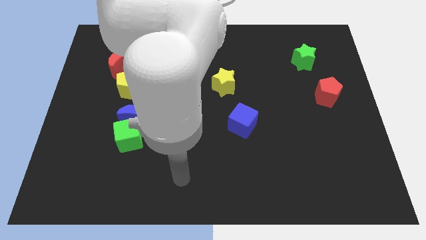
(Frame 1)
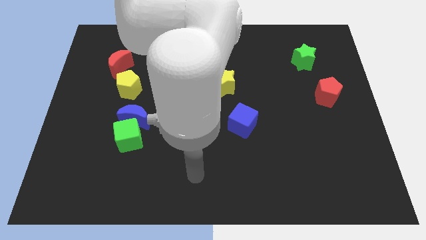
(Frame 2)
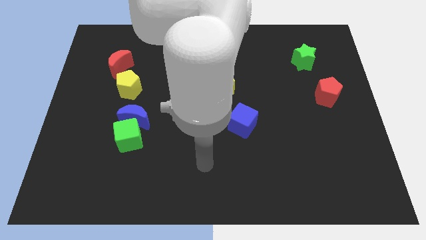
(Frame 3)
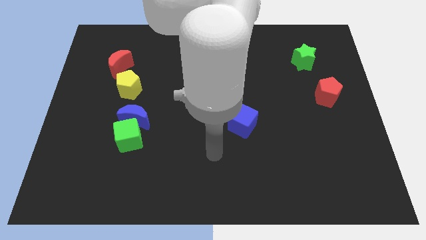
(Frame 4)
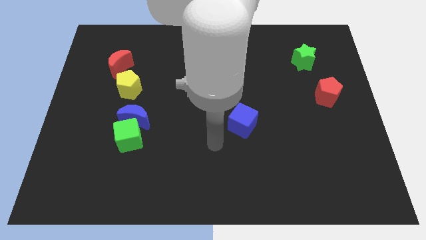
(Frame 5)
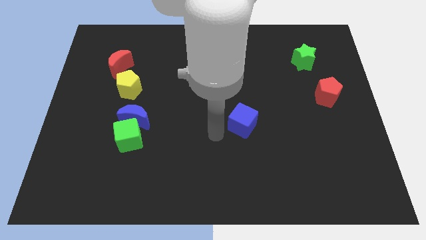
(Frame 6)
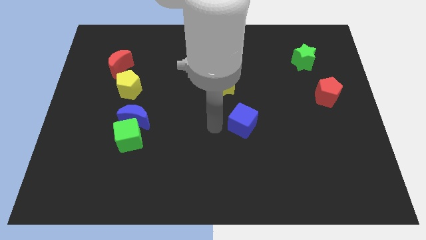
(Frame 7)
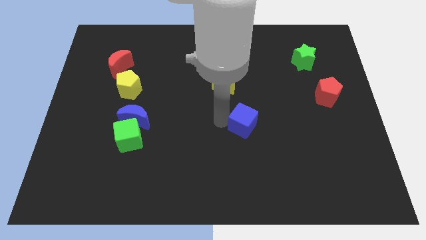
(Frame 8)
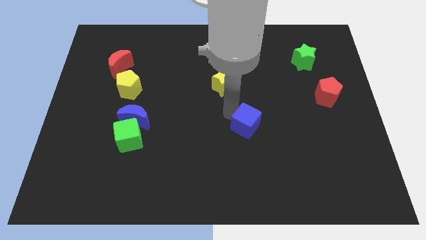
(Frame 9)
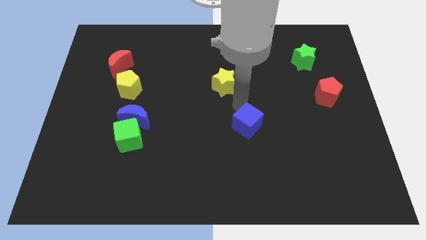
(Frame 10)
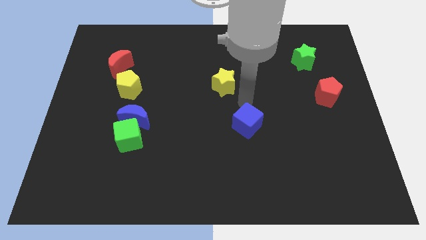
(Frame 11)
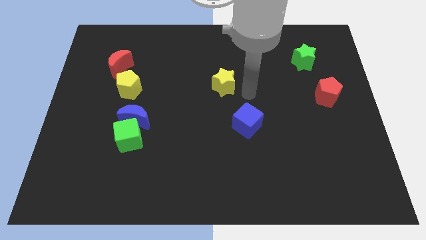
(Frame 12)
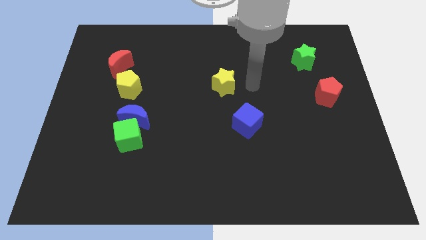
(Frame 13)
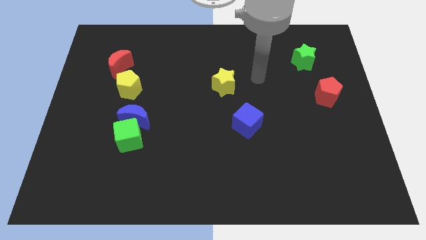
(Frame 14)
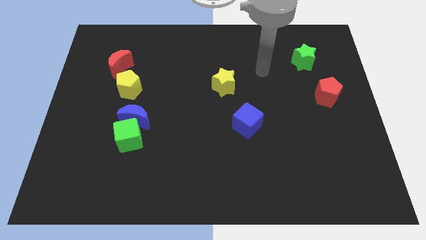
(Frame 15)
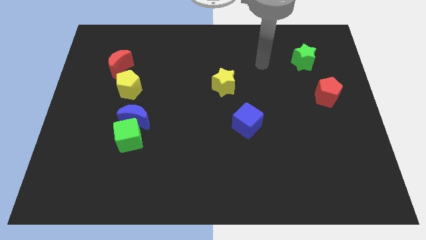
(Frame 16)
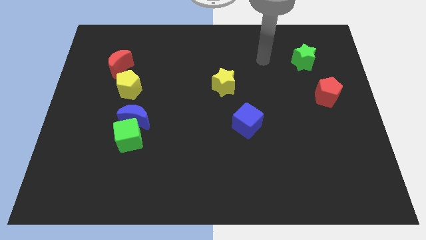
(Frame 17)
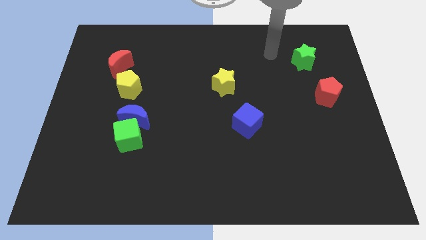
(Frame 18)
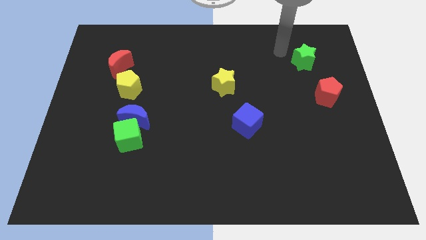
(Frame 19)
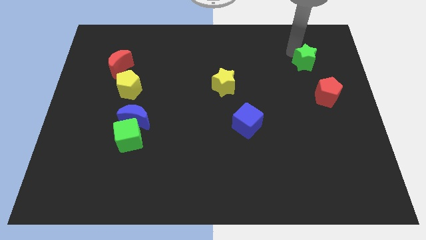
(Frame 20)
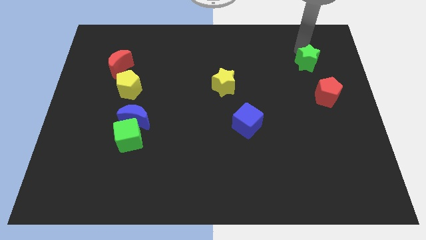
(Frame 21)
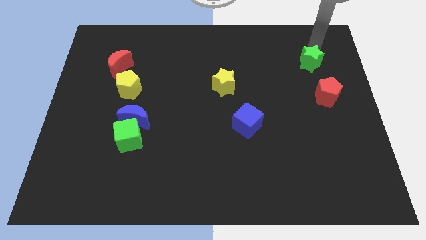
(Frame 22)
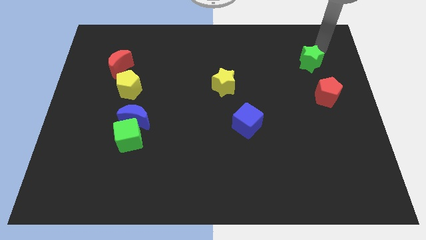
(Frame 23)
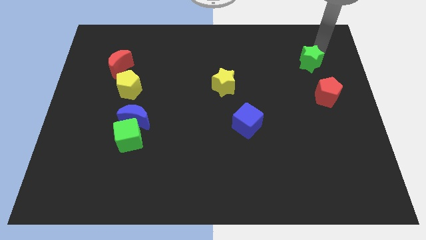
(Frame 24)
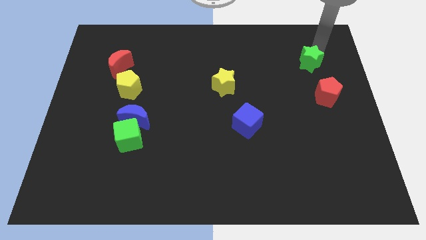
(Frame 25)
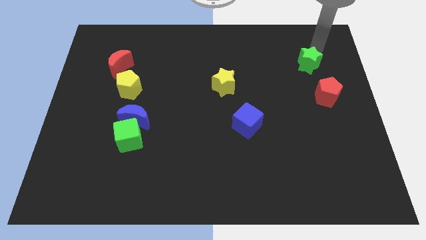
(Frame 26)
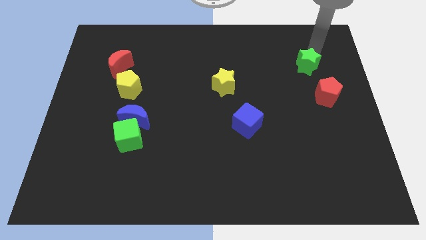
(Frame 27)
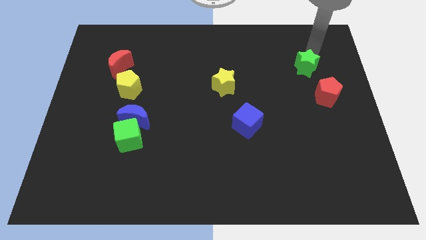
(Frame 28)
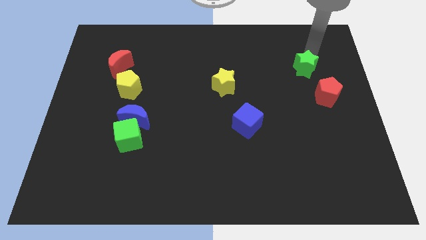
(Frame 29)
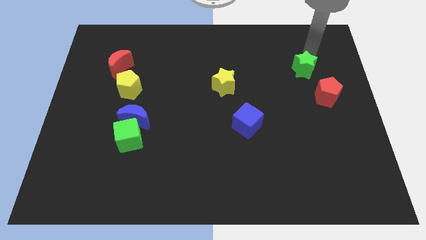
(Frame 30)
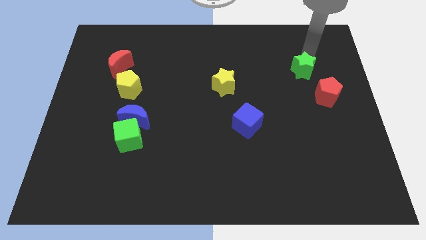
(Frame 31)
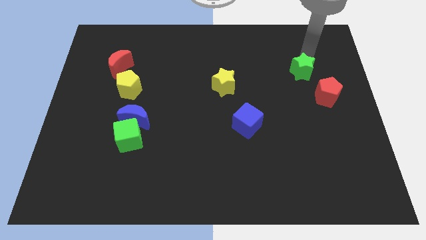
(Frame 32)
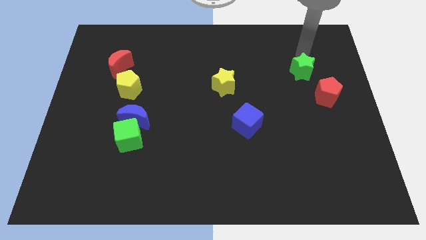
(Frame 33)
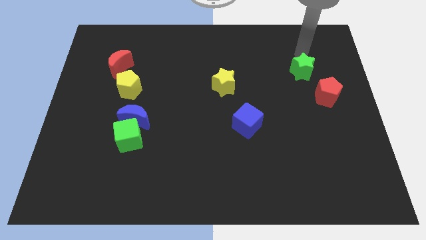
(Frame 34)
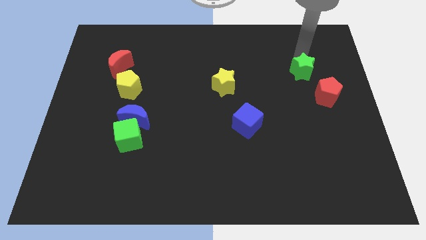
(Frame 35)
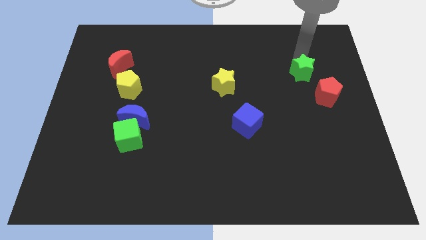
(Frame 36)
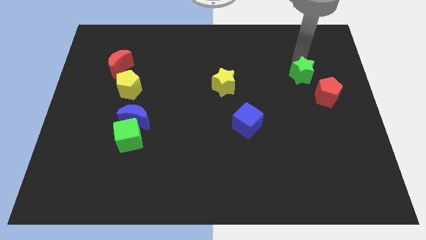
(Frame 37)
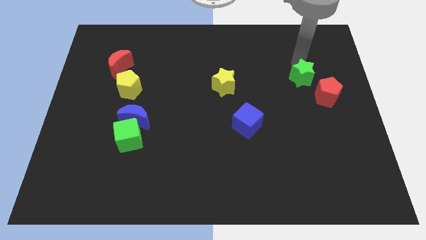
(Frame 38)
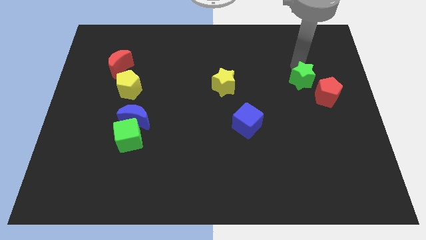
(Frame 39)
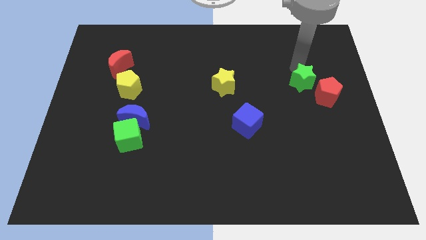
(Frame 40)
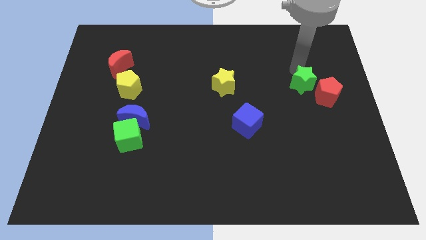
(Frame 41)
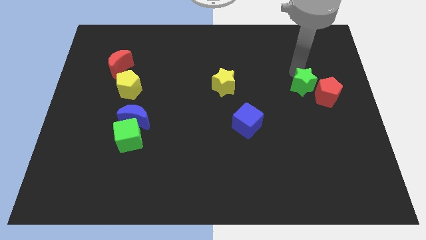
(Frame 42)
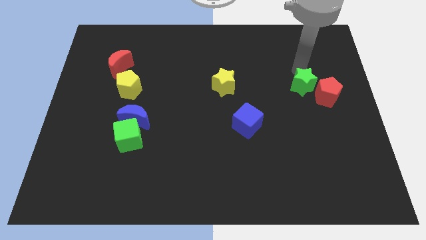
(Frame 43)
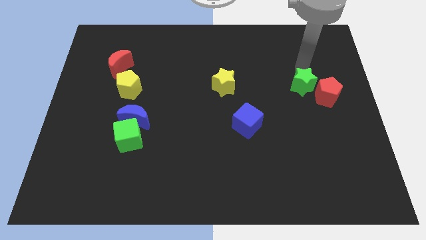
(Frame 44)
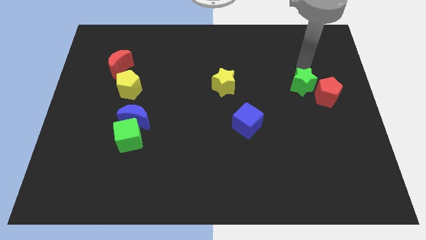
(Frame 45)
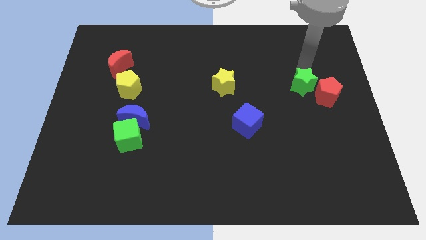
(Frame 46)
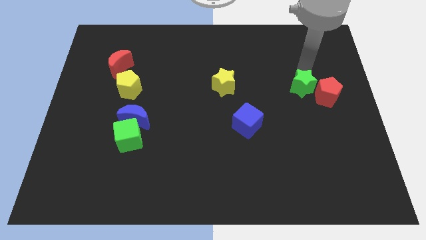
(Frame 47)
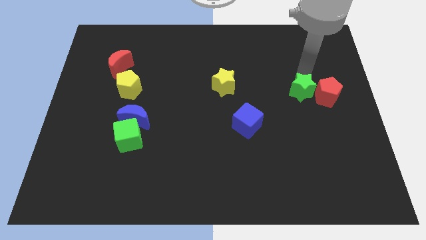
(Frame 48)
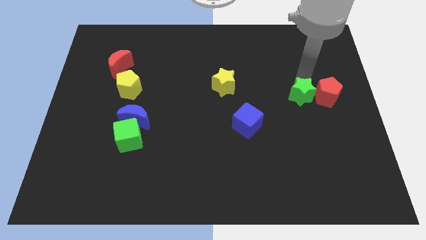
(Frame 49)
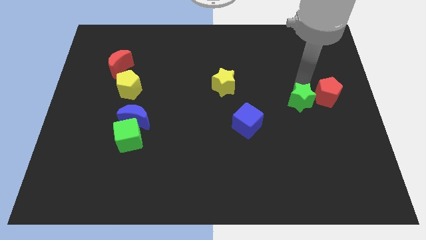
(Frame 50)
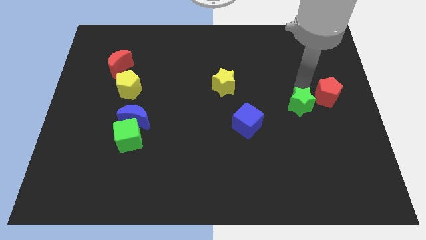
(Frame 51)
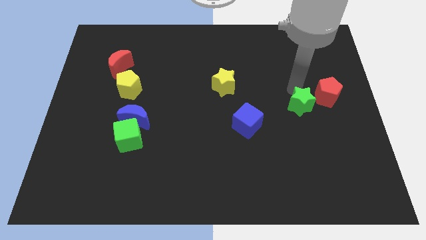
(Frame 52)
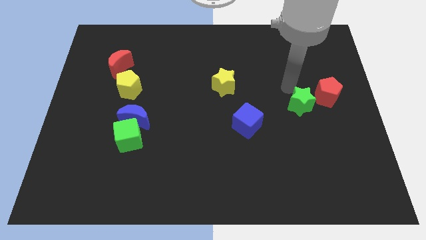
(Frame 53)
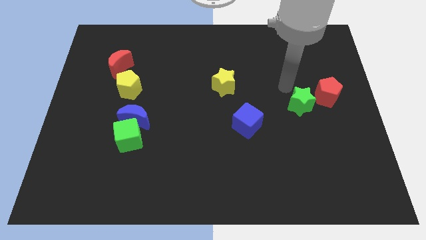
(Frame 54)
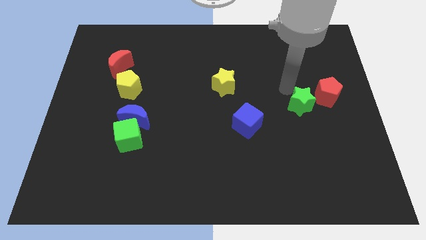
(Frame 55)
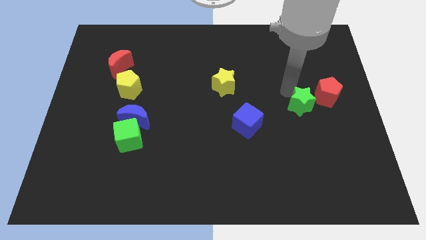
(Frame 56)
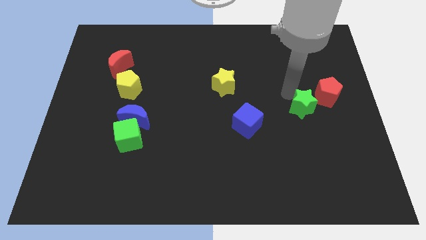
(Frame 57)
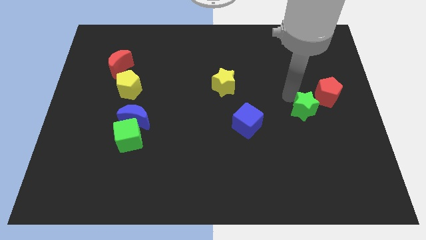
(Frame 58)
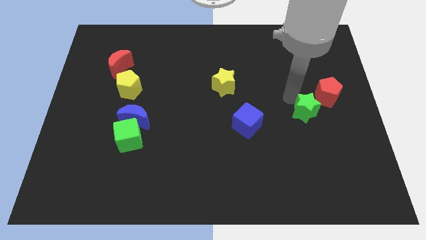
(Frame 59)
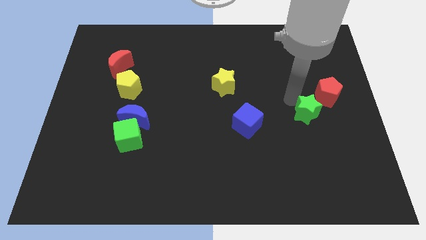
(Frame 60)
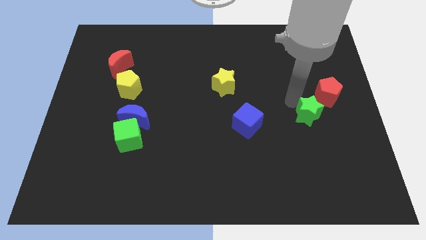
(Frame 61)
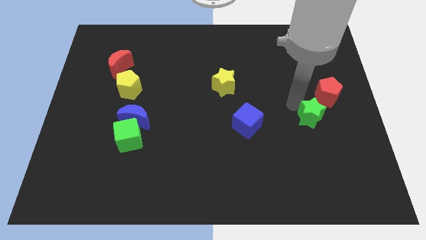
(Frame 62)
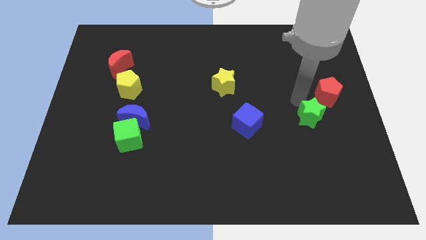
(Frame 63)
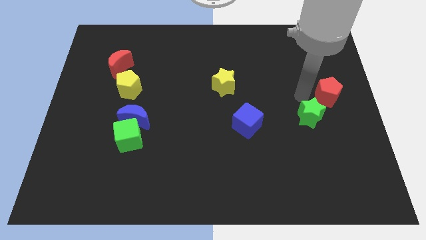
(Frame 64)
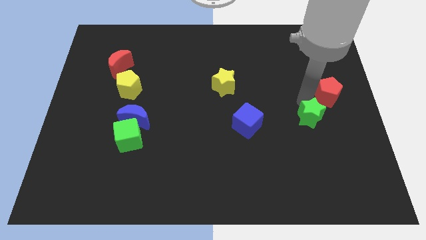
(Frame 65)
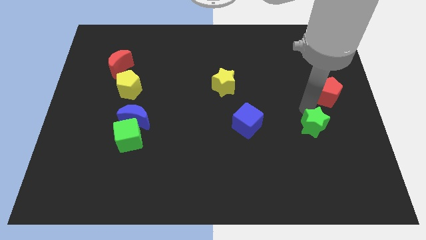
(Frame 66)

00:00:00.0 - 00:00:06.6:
slide the green star downwards

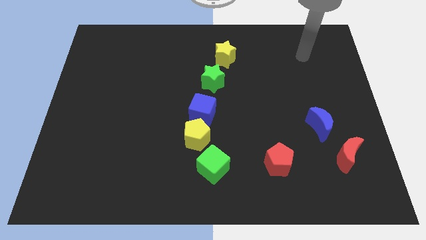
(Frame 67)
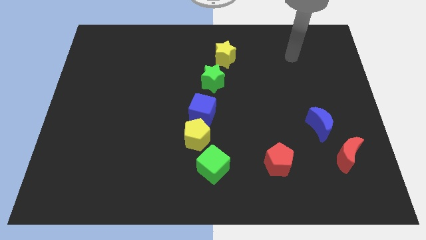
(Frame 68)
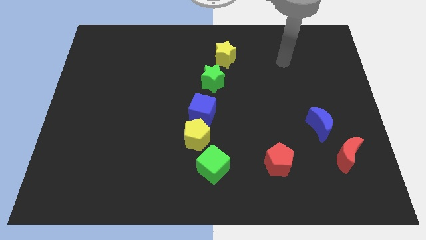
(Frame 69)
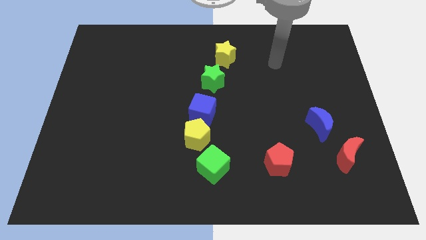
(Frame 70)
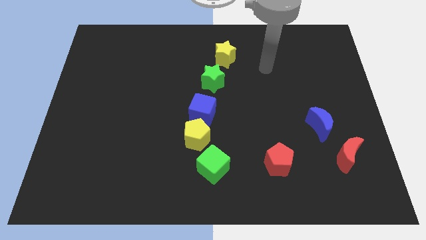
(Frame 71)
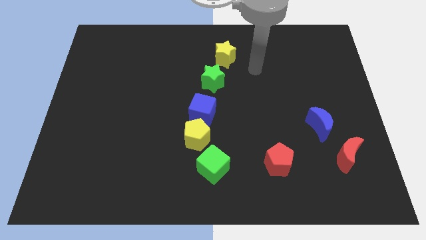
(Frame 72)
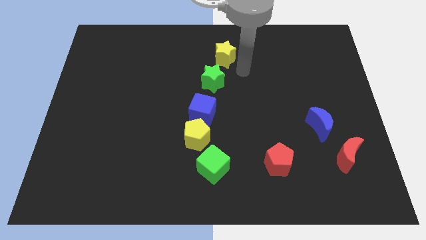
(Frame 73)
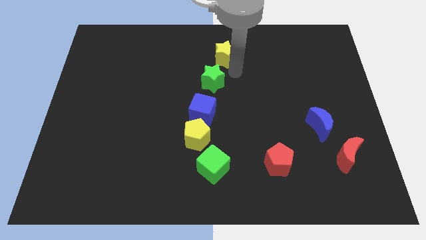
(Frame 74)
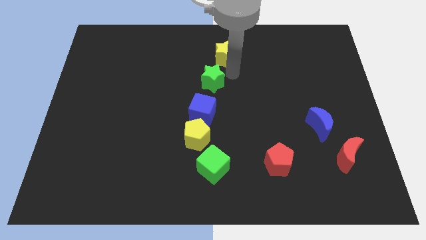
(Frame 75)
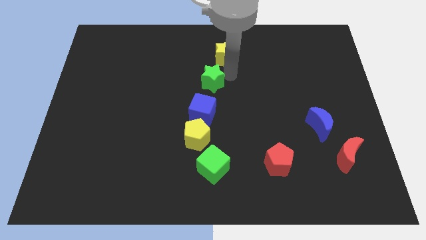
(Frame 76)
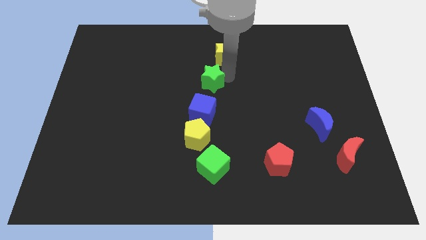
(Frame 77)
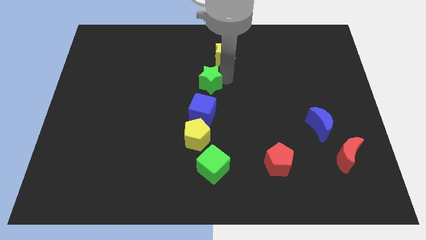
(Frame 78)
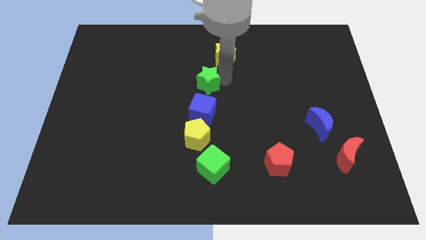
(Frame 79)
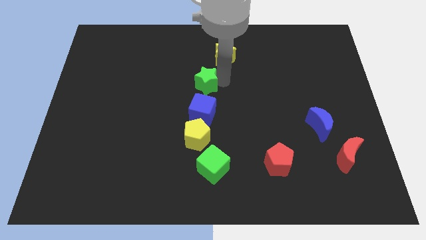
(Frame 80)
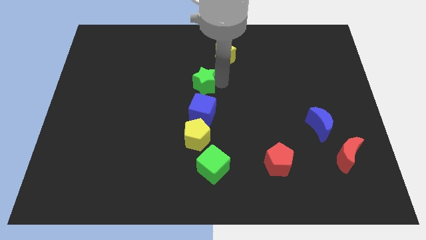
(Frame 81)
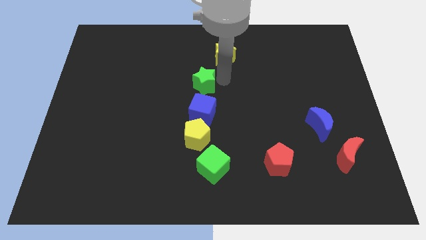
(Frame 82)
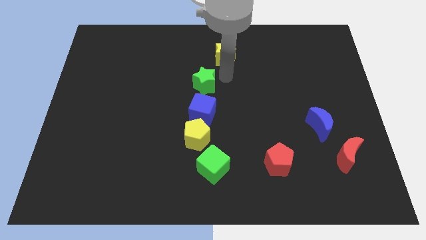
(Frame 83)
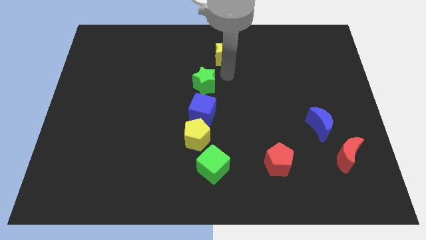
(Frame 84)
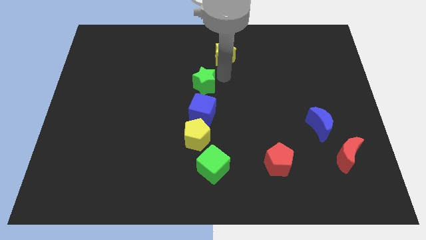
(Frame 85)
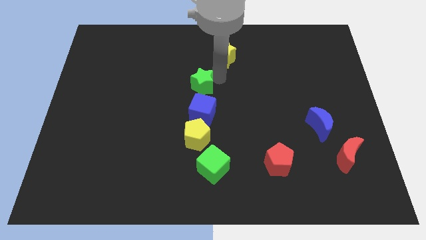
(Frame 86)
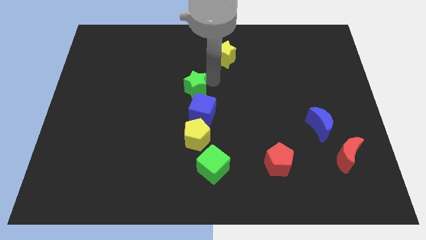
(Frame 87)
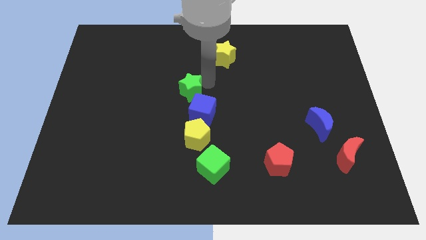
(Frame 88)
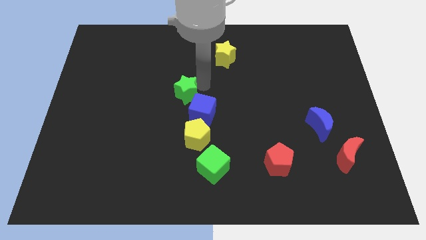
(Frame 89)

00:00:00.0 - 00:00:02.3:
move the green star a little bit down and to the left diagonally
